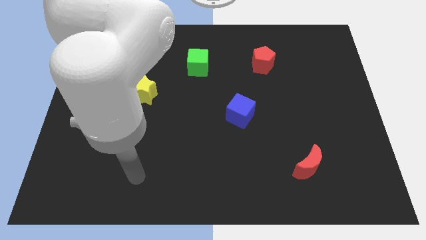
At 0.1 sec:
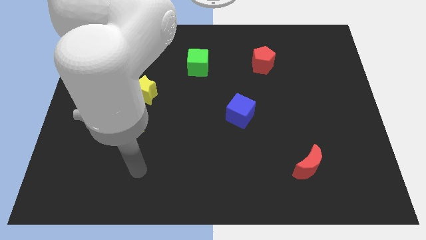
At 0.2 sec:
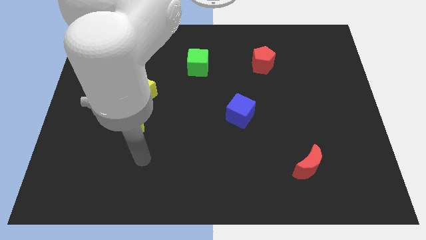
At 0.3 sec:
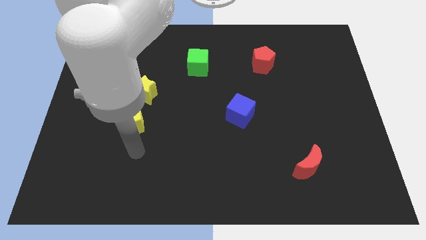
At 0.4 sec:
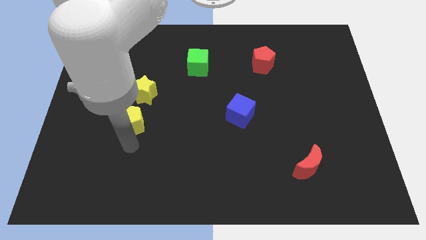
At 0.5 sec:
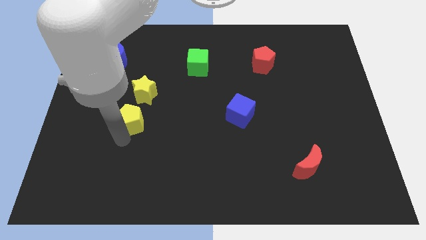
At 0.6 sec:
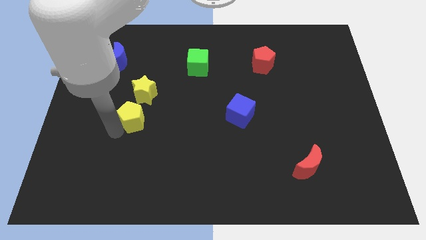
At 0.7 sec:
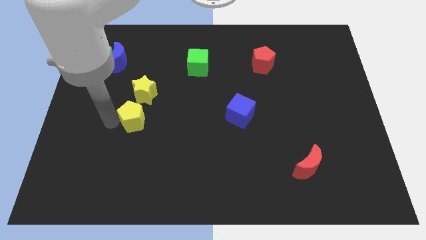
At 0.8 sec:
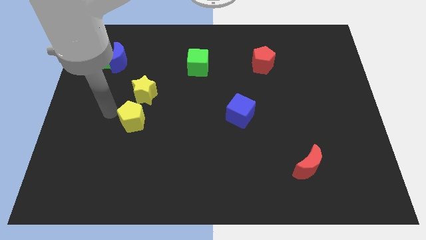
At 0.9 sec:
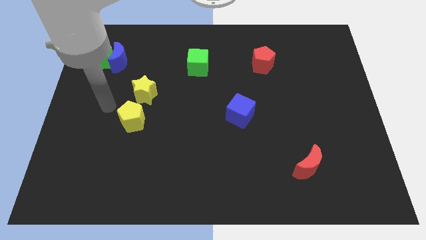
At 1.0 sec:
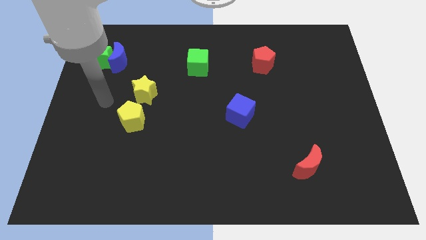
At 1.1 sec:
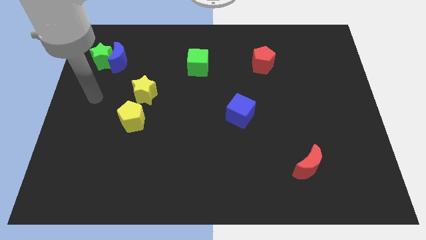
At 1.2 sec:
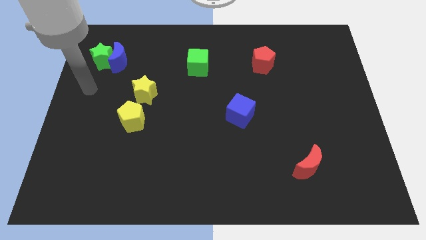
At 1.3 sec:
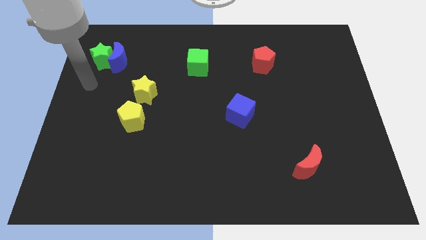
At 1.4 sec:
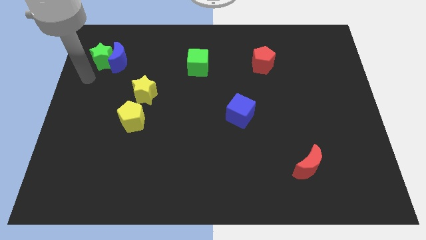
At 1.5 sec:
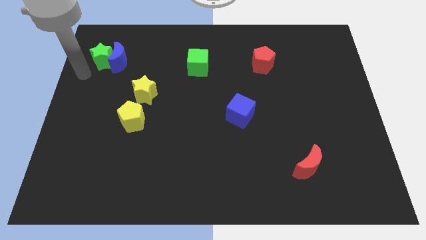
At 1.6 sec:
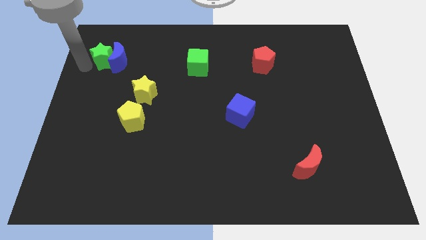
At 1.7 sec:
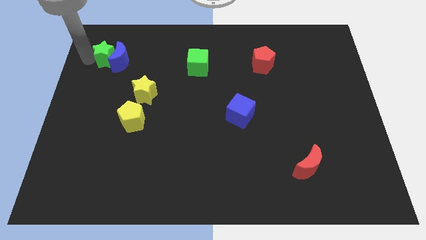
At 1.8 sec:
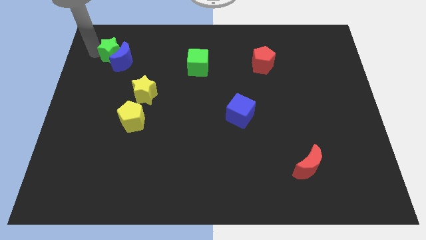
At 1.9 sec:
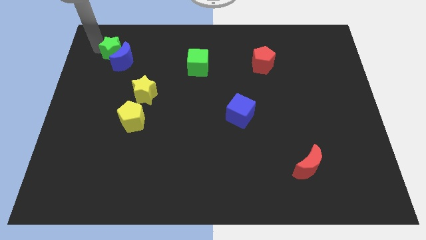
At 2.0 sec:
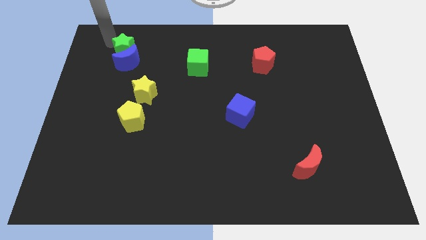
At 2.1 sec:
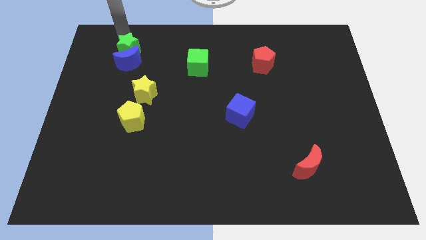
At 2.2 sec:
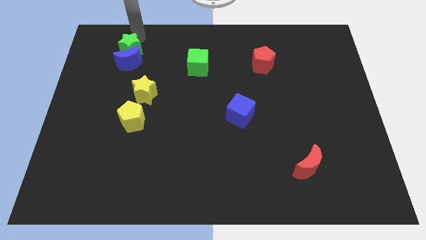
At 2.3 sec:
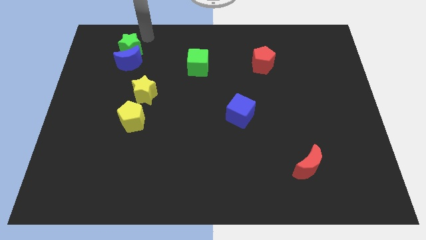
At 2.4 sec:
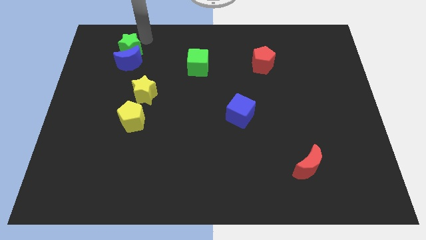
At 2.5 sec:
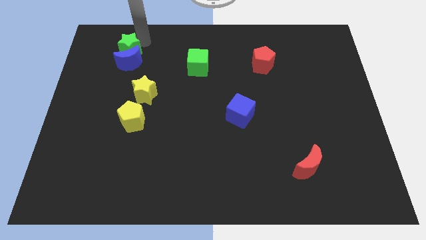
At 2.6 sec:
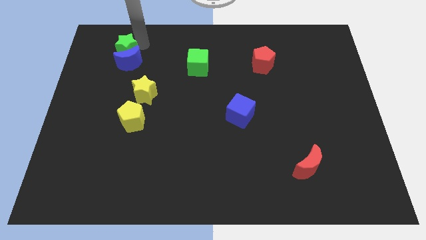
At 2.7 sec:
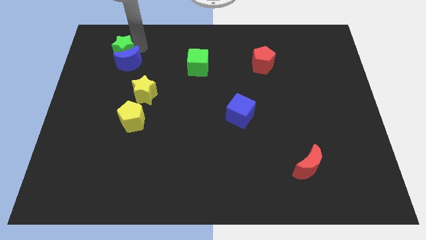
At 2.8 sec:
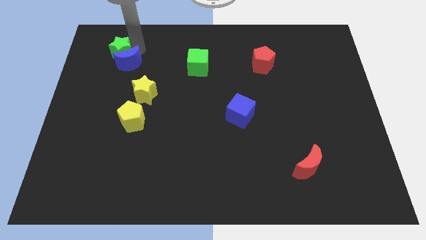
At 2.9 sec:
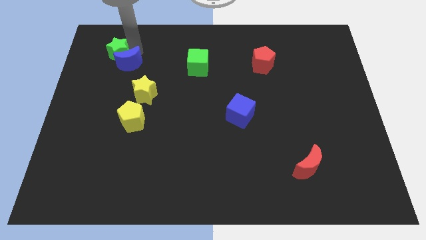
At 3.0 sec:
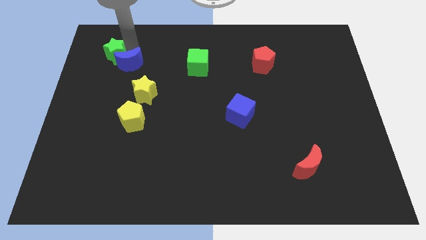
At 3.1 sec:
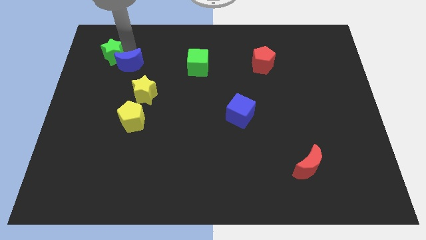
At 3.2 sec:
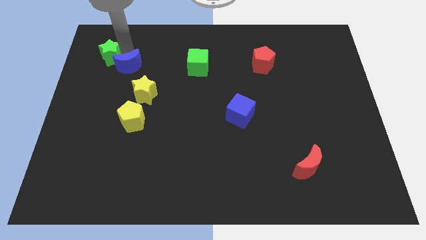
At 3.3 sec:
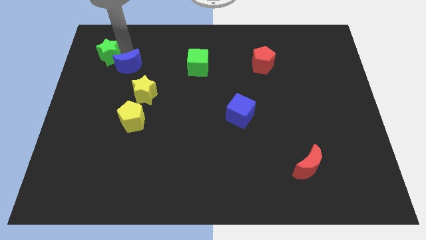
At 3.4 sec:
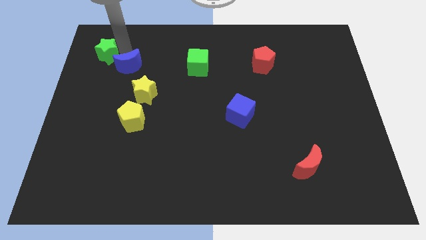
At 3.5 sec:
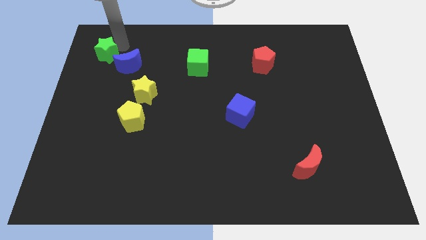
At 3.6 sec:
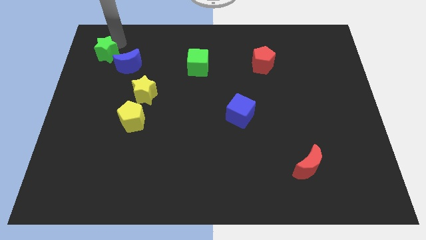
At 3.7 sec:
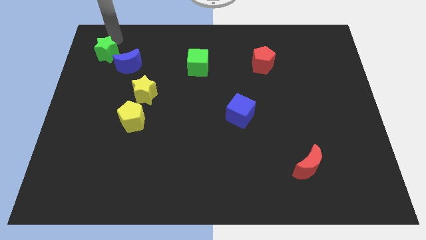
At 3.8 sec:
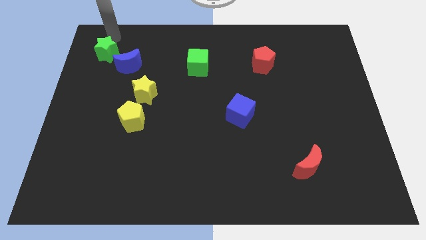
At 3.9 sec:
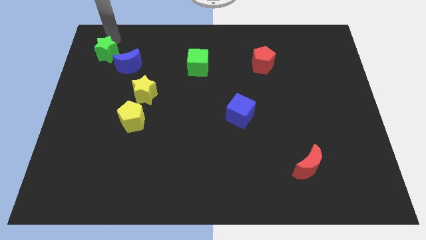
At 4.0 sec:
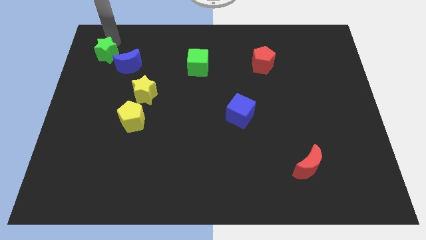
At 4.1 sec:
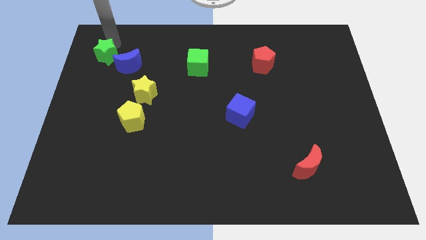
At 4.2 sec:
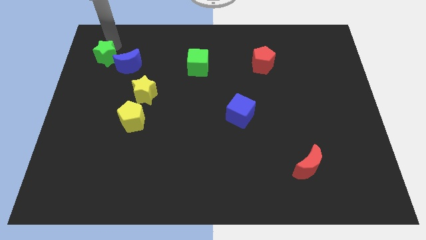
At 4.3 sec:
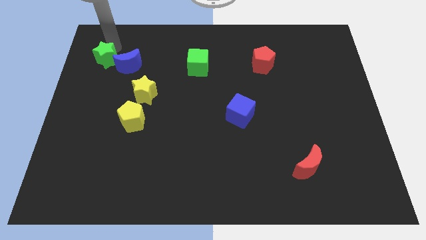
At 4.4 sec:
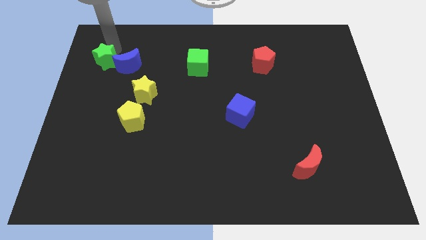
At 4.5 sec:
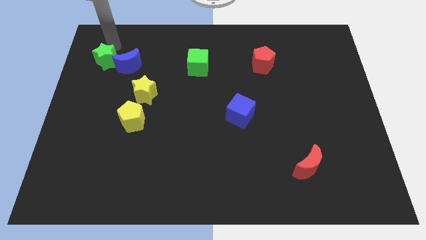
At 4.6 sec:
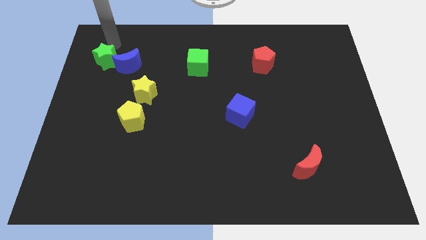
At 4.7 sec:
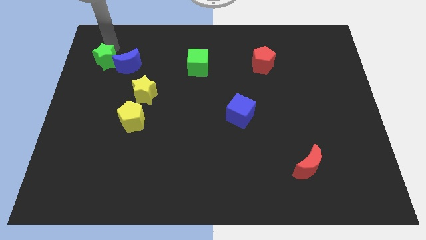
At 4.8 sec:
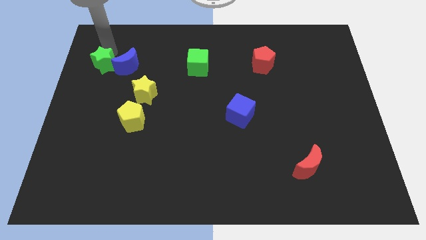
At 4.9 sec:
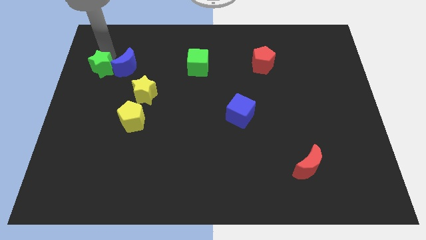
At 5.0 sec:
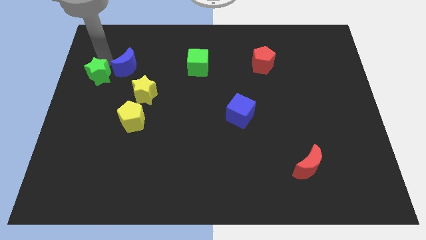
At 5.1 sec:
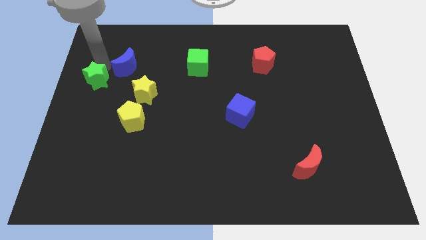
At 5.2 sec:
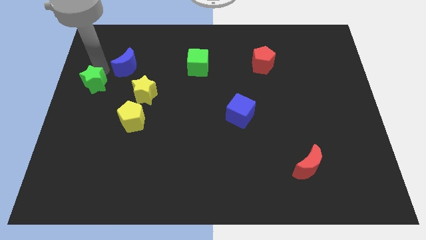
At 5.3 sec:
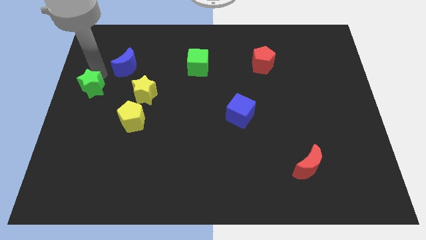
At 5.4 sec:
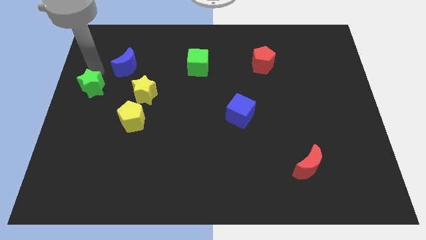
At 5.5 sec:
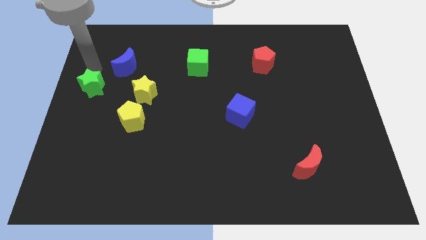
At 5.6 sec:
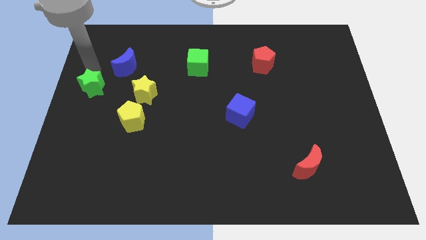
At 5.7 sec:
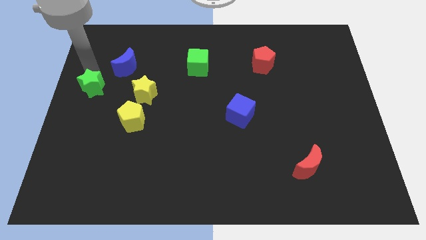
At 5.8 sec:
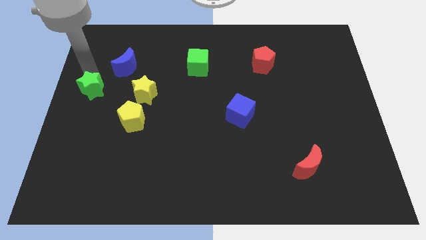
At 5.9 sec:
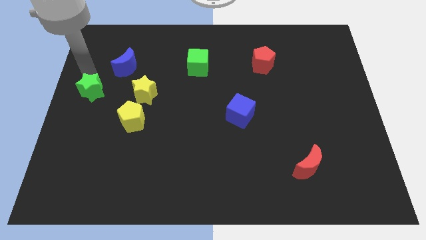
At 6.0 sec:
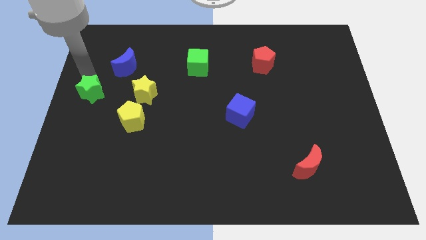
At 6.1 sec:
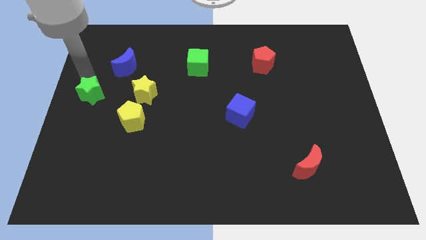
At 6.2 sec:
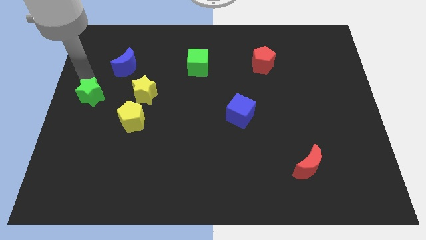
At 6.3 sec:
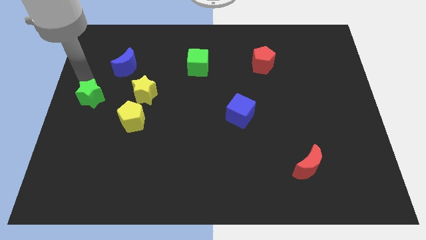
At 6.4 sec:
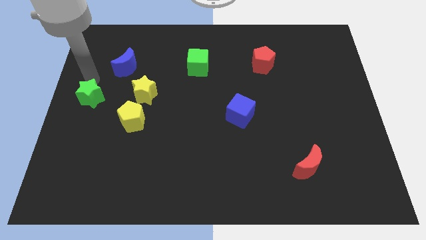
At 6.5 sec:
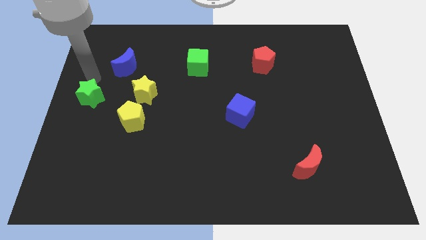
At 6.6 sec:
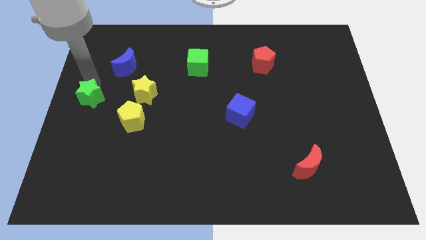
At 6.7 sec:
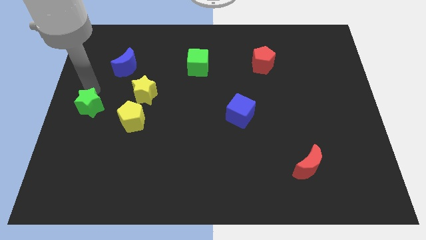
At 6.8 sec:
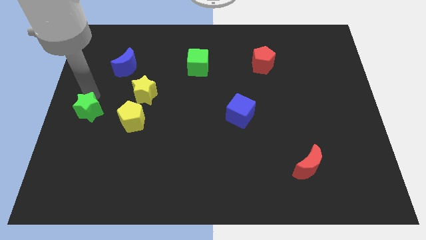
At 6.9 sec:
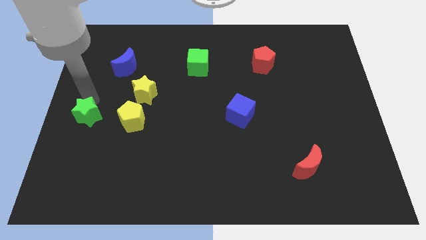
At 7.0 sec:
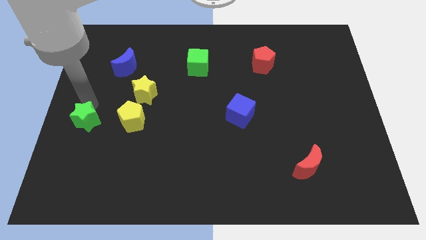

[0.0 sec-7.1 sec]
move the green star down

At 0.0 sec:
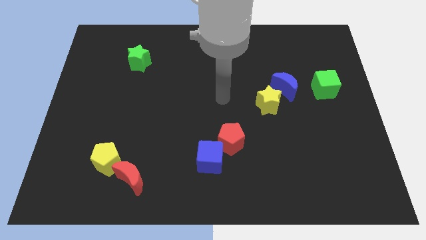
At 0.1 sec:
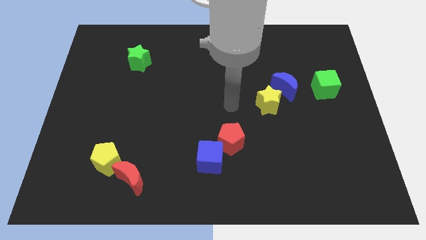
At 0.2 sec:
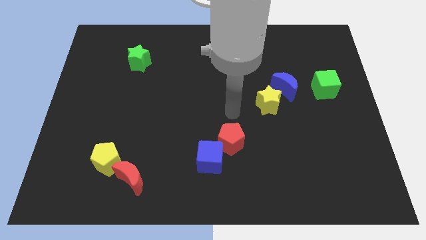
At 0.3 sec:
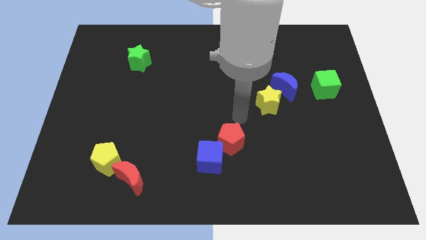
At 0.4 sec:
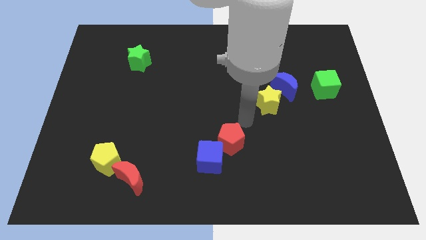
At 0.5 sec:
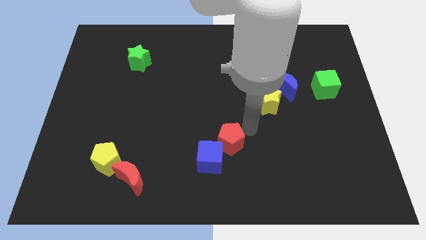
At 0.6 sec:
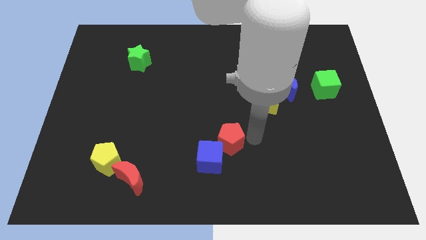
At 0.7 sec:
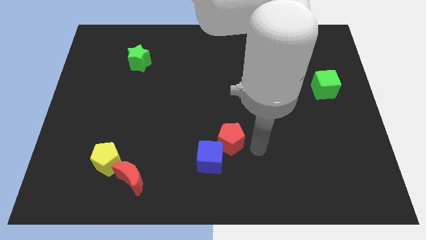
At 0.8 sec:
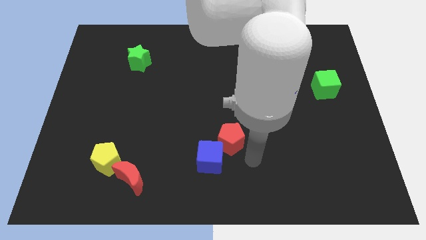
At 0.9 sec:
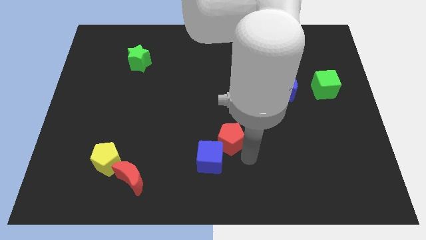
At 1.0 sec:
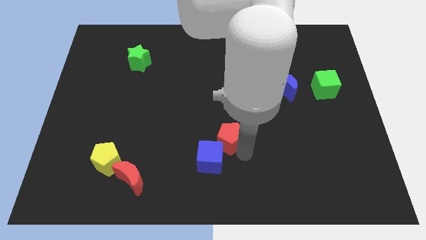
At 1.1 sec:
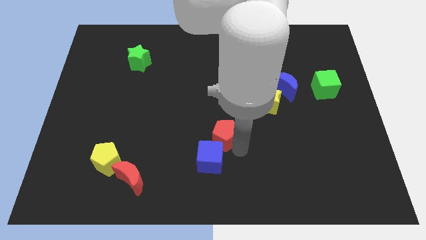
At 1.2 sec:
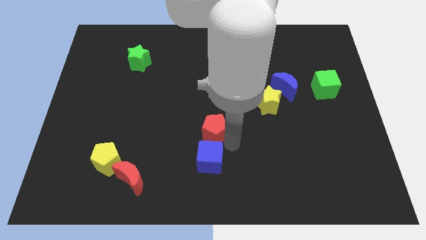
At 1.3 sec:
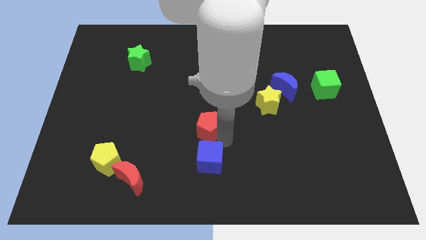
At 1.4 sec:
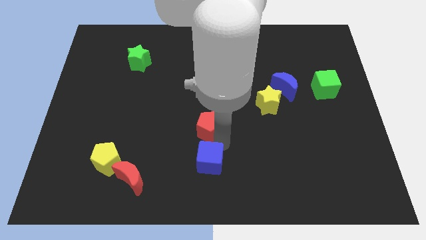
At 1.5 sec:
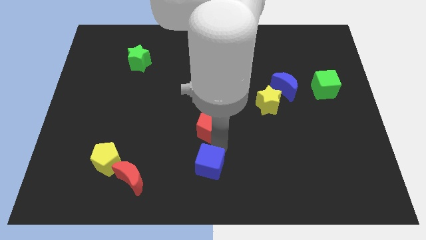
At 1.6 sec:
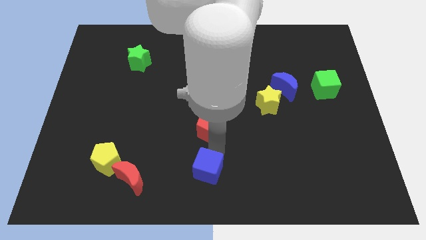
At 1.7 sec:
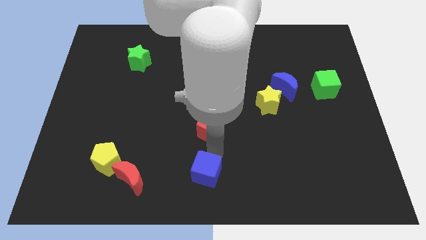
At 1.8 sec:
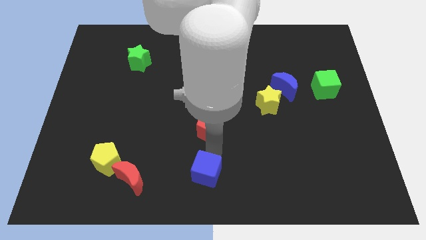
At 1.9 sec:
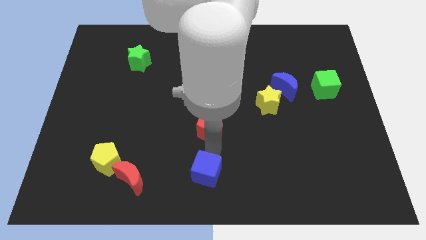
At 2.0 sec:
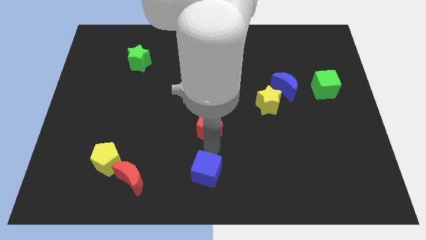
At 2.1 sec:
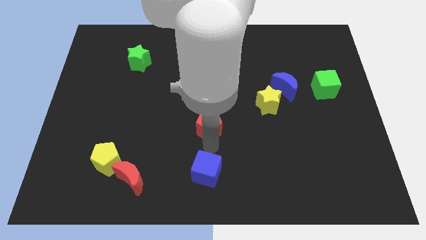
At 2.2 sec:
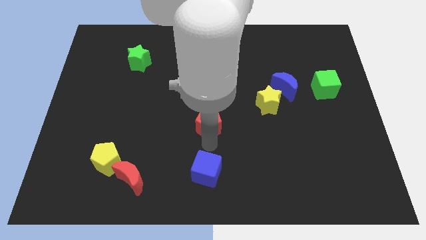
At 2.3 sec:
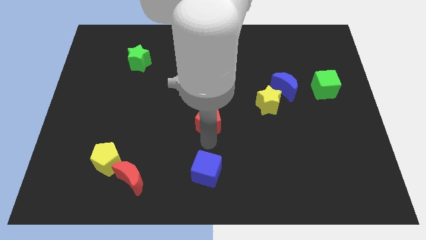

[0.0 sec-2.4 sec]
push the red pentagon up and left a little bit
